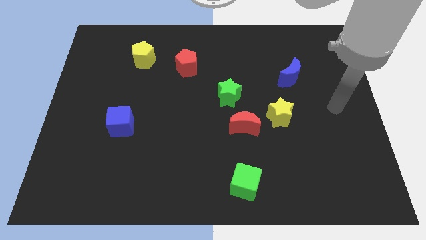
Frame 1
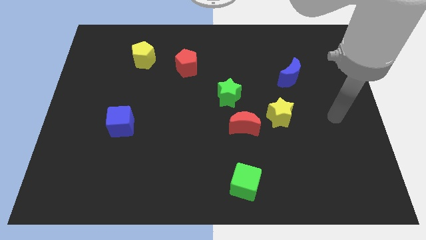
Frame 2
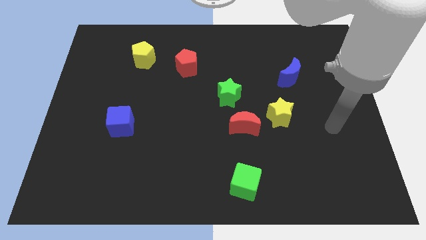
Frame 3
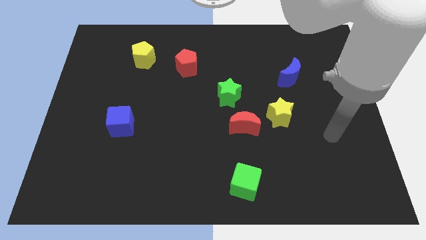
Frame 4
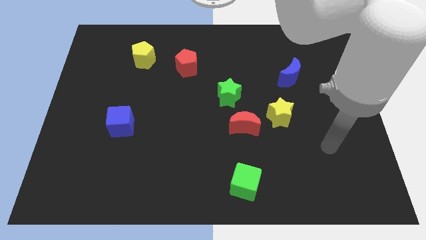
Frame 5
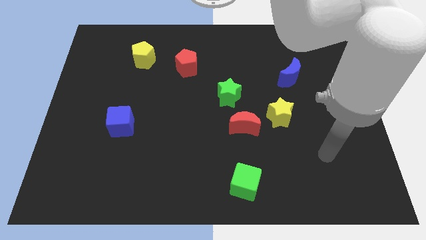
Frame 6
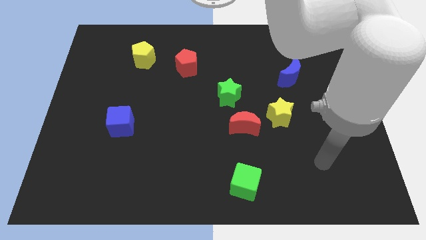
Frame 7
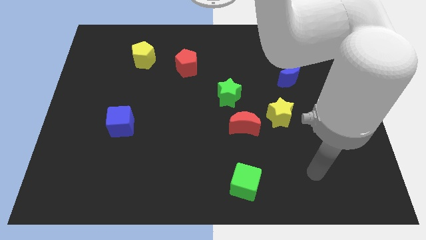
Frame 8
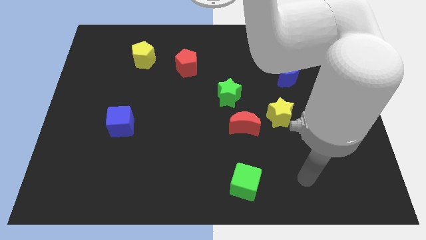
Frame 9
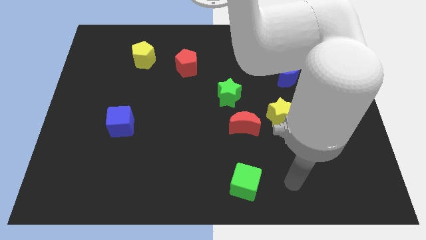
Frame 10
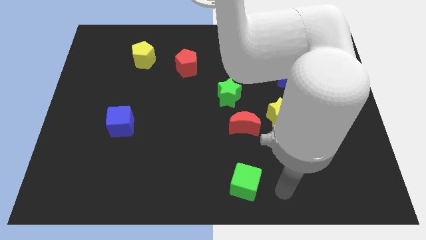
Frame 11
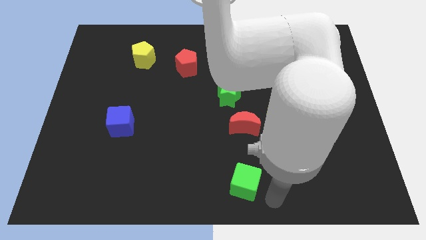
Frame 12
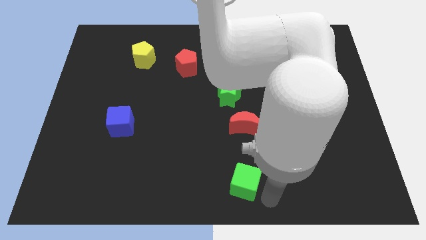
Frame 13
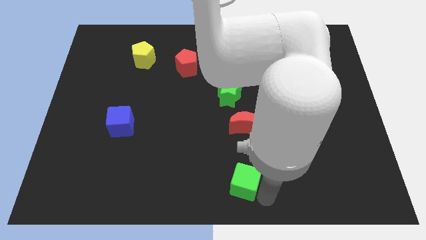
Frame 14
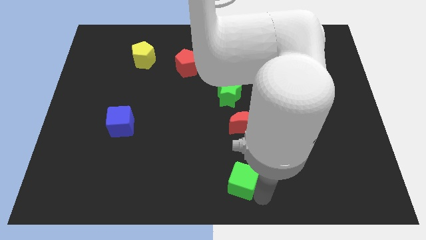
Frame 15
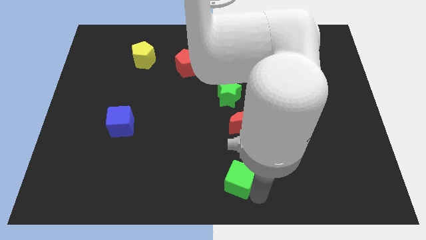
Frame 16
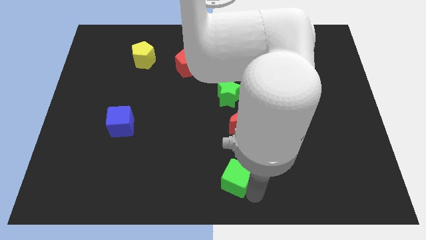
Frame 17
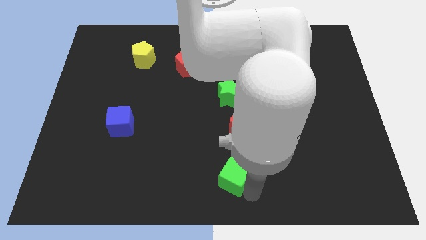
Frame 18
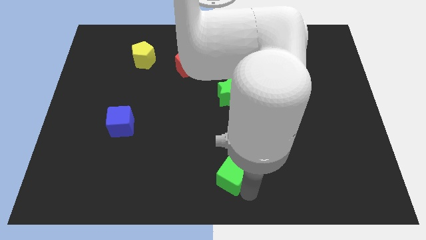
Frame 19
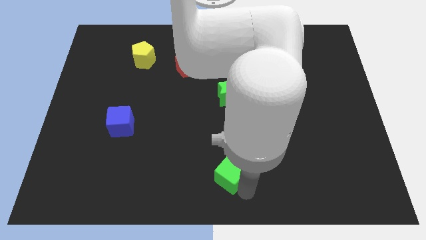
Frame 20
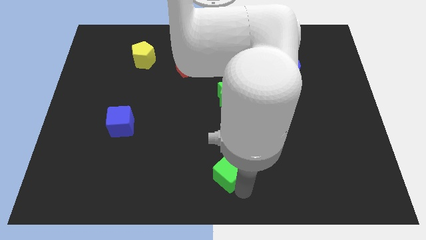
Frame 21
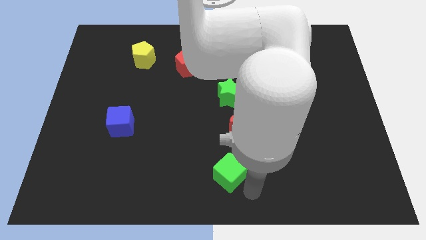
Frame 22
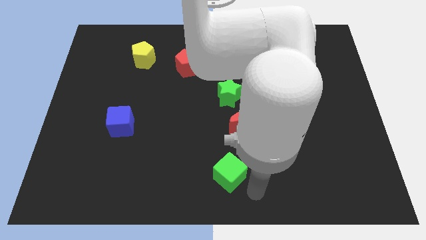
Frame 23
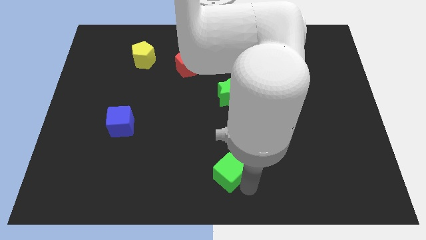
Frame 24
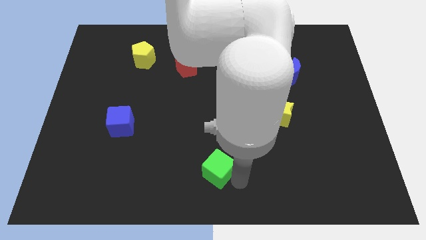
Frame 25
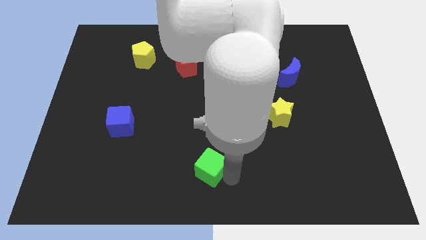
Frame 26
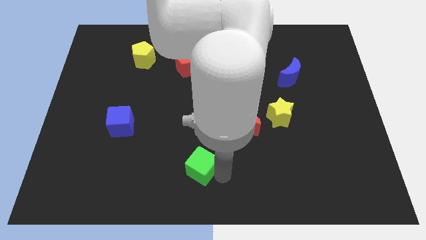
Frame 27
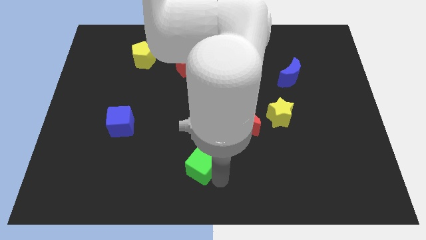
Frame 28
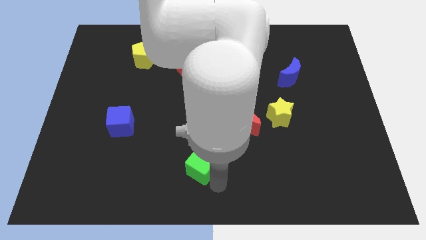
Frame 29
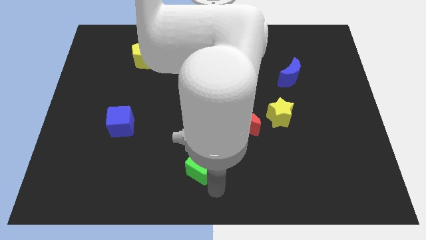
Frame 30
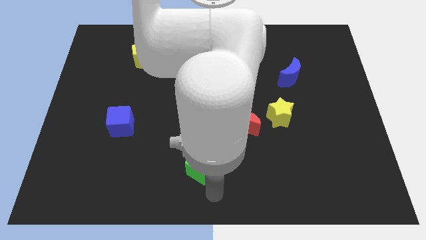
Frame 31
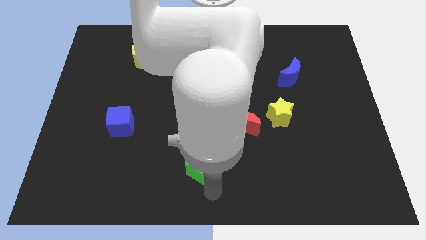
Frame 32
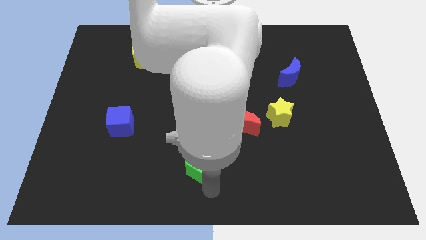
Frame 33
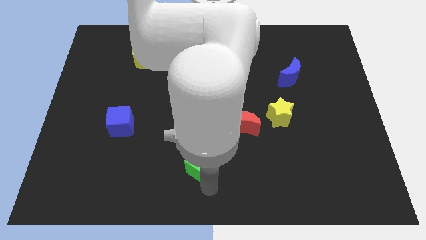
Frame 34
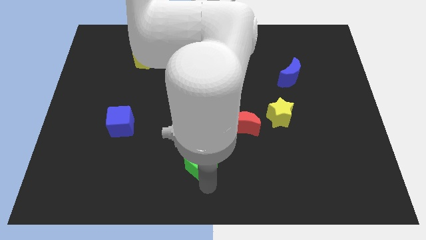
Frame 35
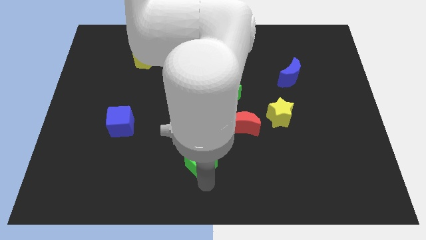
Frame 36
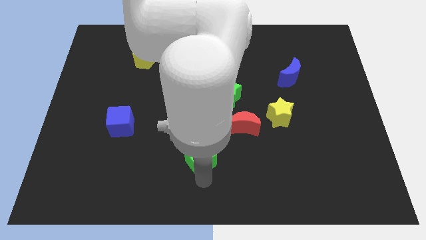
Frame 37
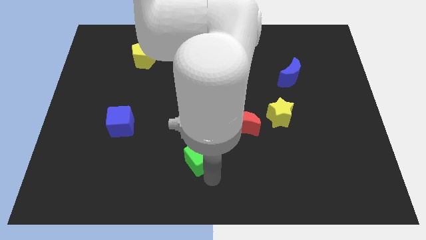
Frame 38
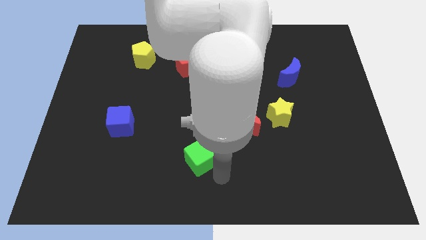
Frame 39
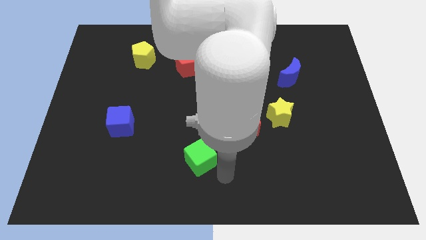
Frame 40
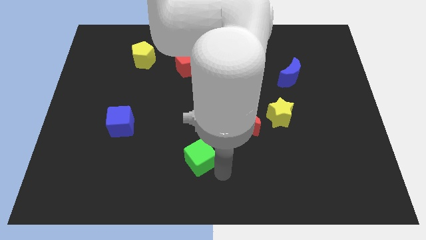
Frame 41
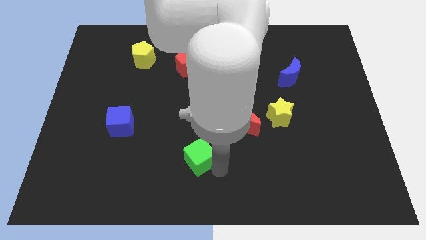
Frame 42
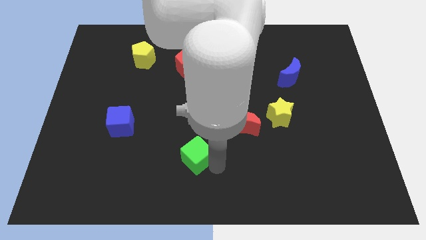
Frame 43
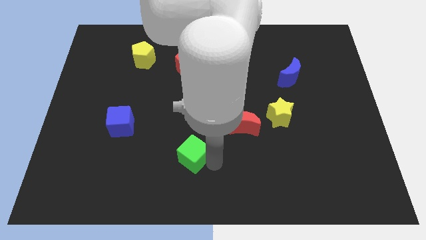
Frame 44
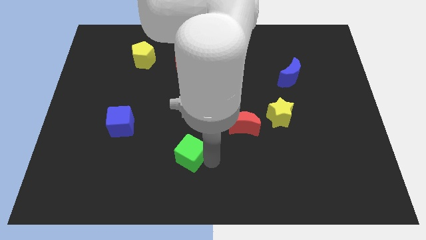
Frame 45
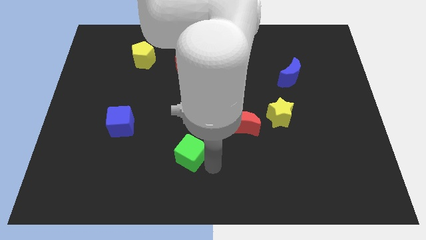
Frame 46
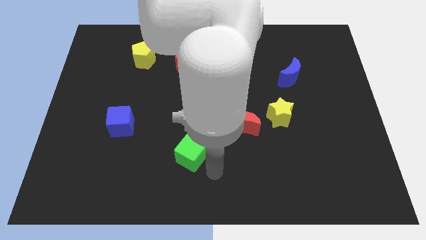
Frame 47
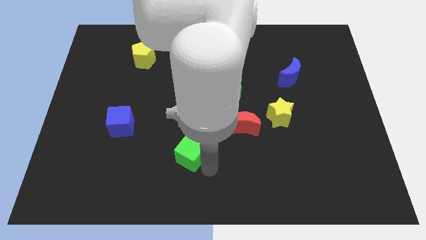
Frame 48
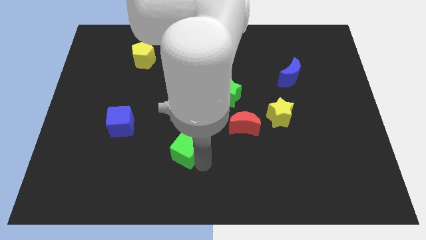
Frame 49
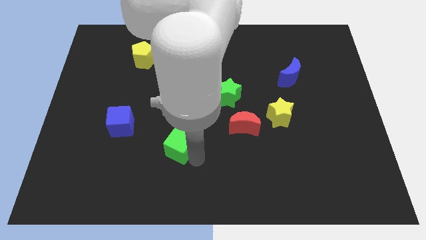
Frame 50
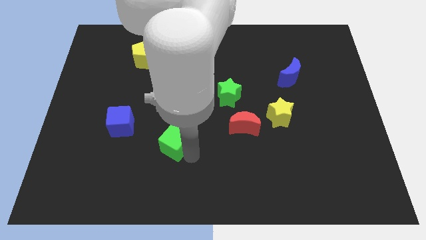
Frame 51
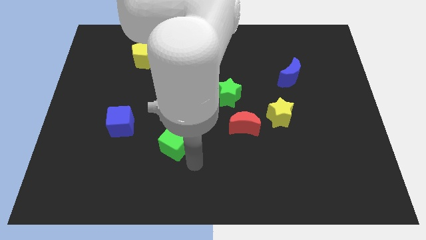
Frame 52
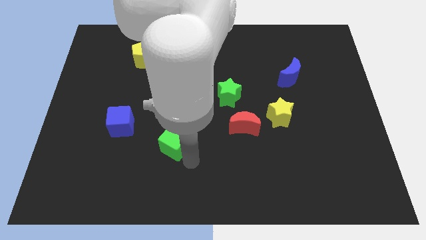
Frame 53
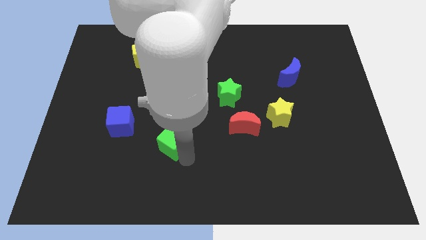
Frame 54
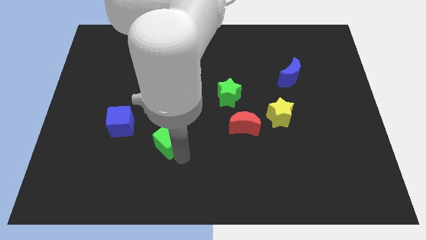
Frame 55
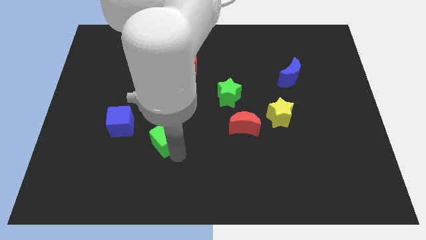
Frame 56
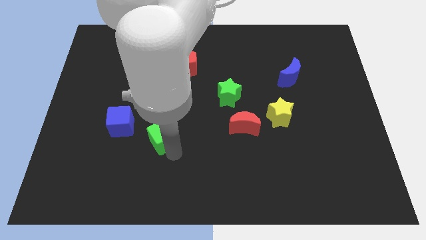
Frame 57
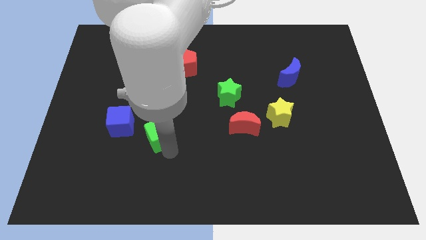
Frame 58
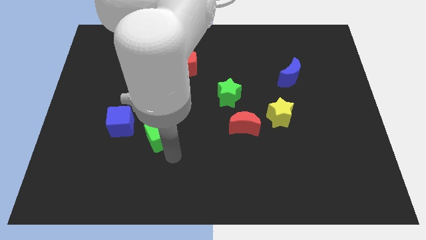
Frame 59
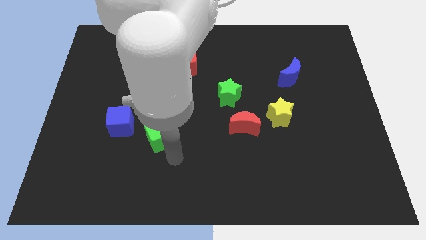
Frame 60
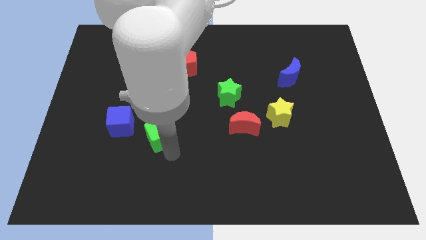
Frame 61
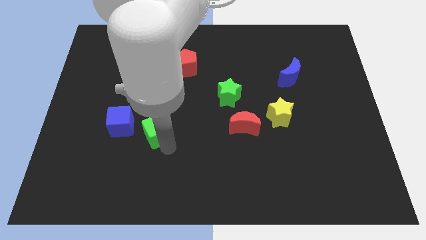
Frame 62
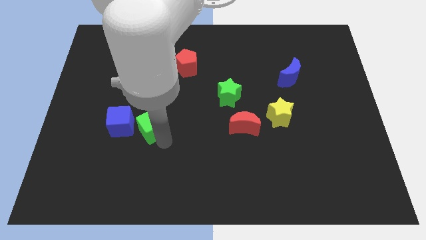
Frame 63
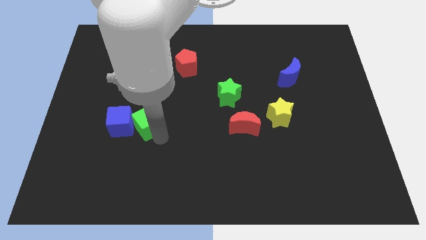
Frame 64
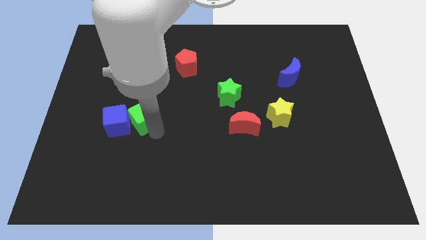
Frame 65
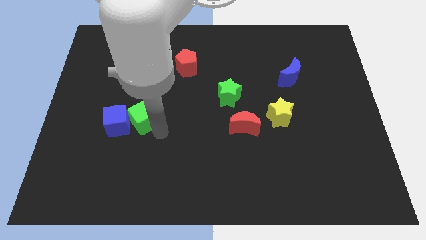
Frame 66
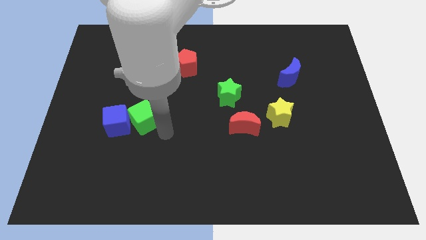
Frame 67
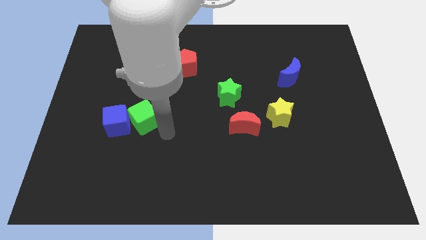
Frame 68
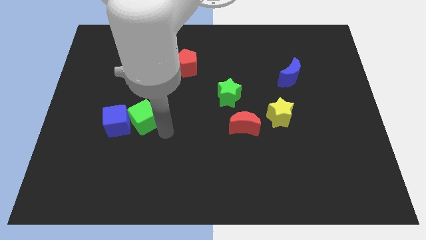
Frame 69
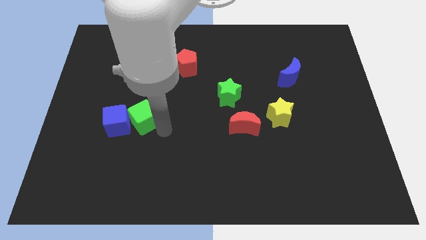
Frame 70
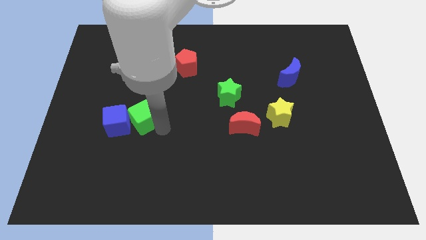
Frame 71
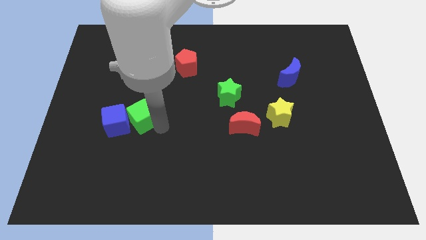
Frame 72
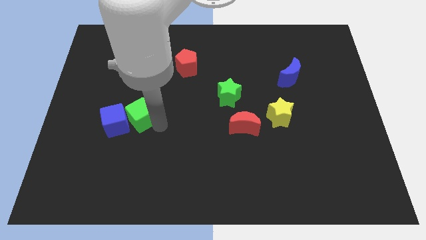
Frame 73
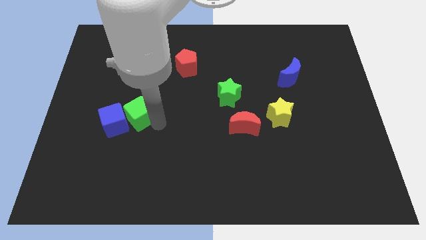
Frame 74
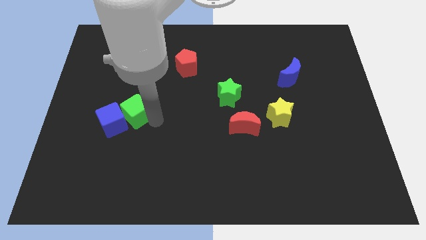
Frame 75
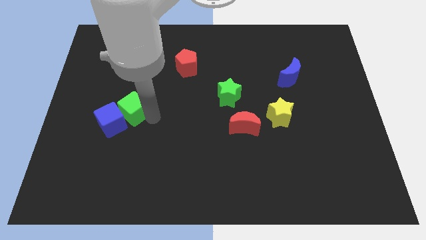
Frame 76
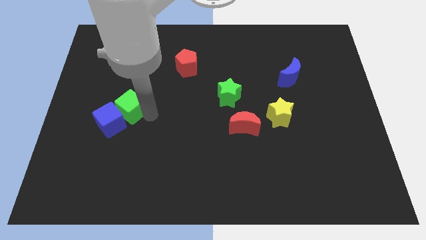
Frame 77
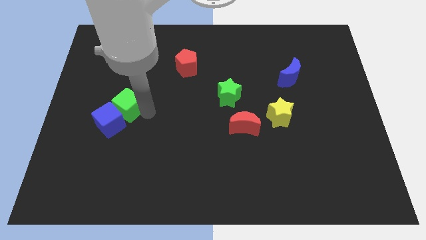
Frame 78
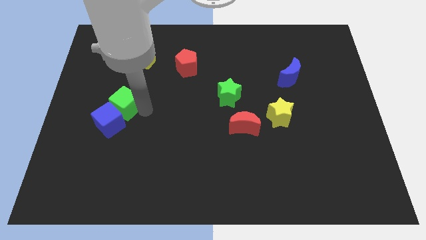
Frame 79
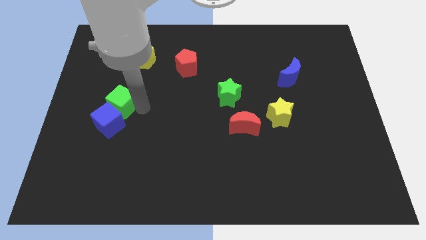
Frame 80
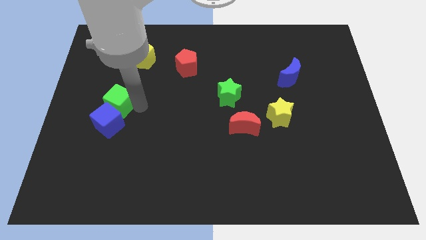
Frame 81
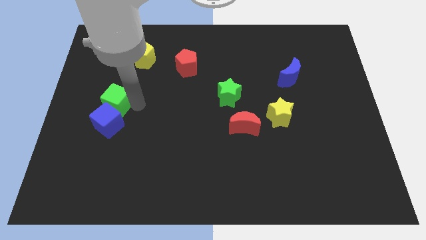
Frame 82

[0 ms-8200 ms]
slide the green cube to the top left of the blue cube
